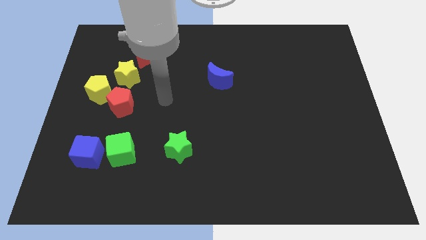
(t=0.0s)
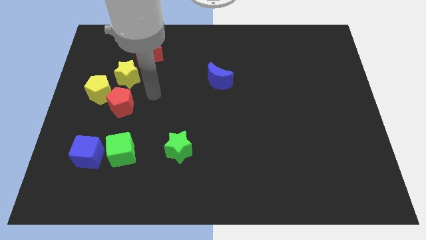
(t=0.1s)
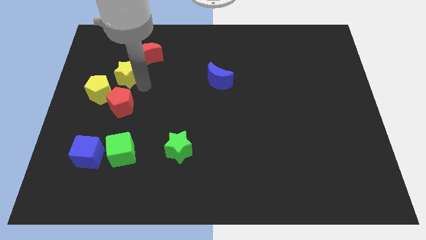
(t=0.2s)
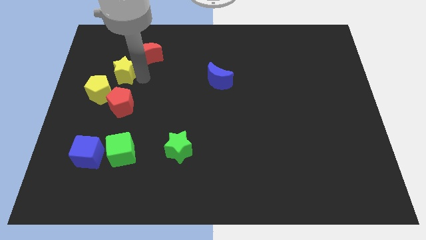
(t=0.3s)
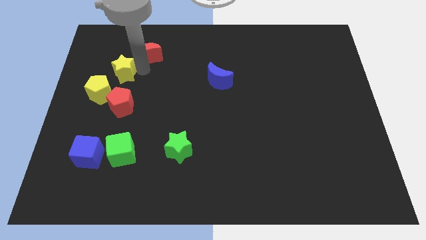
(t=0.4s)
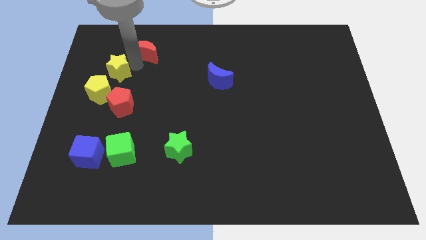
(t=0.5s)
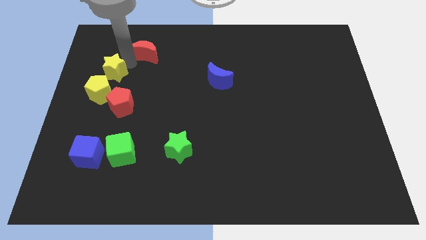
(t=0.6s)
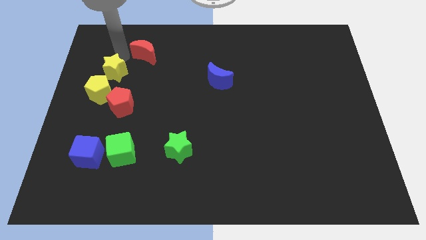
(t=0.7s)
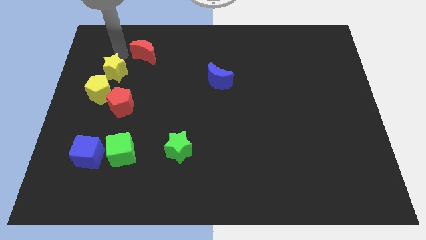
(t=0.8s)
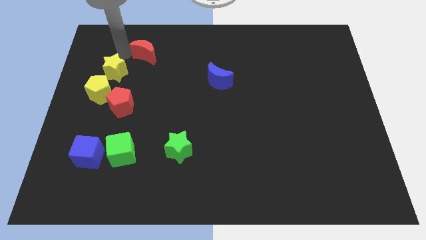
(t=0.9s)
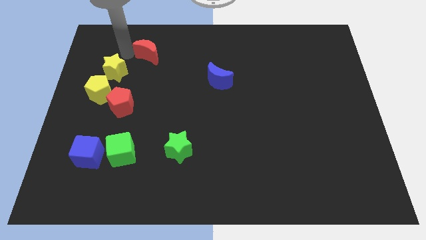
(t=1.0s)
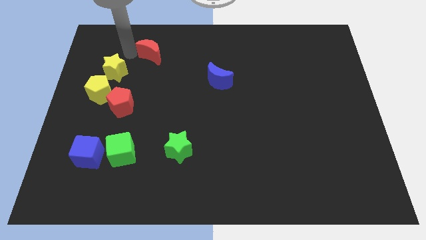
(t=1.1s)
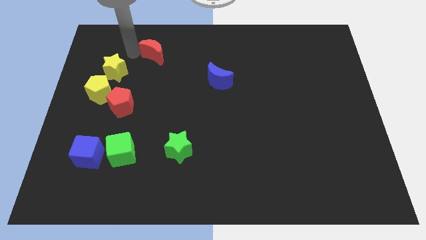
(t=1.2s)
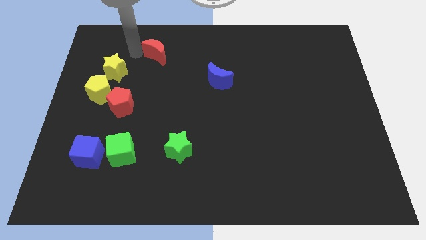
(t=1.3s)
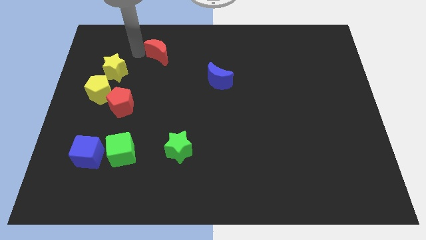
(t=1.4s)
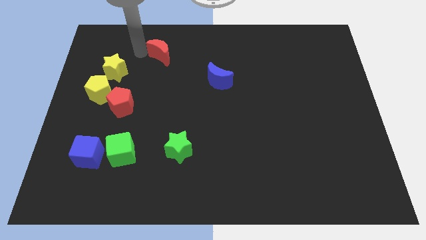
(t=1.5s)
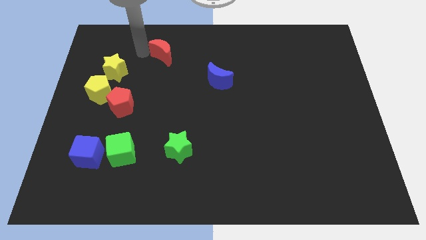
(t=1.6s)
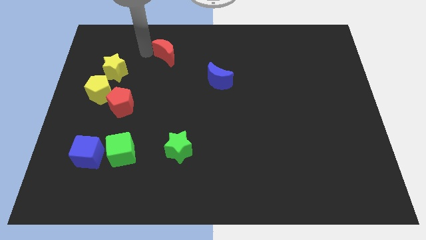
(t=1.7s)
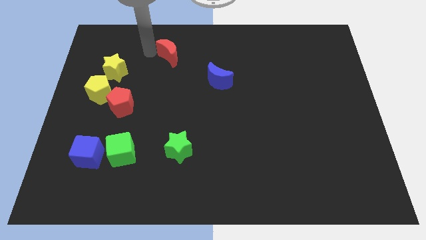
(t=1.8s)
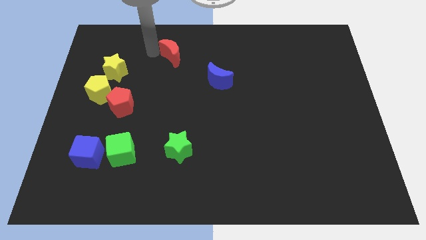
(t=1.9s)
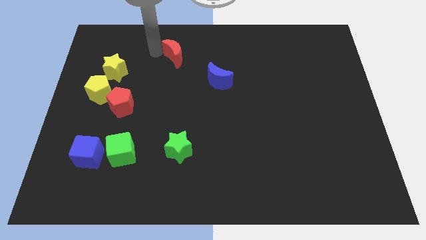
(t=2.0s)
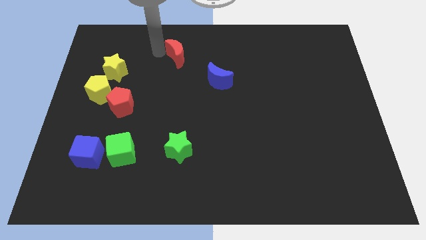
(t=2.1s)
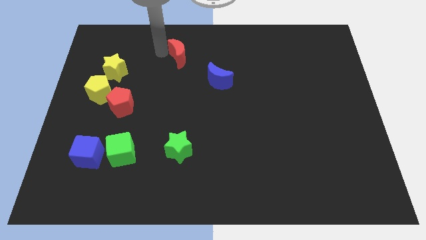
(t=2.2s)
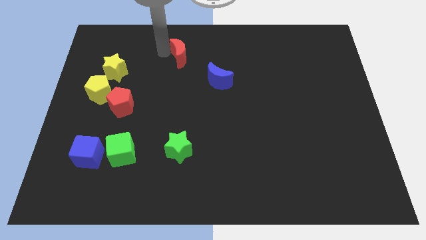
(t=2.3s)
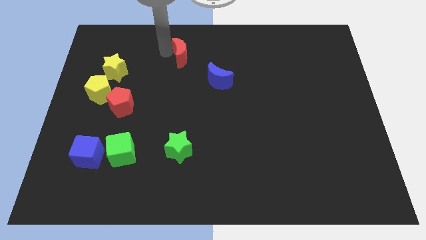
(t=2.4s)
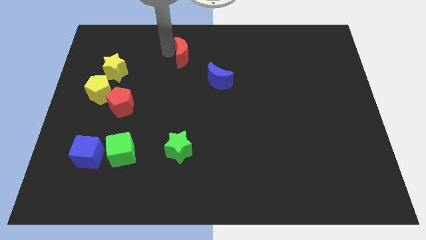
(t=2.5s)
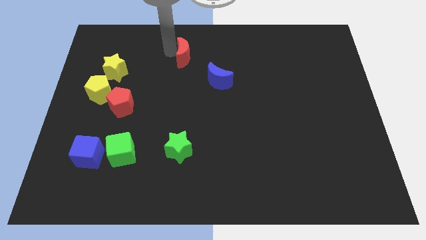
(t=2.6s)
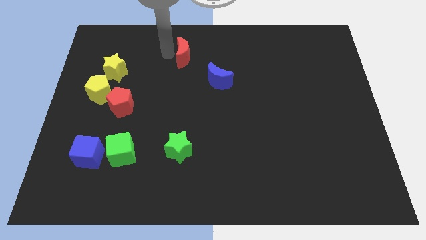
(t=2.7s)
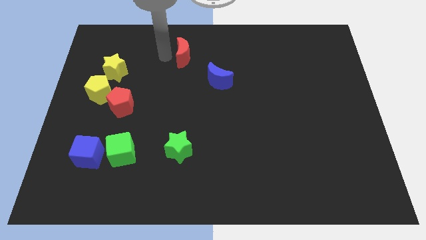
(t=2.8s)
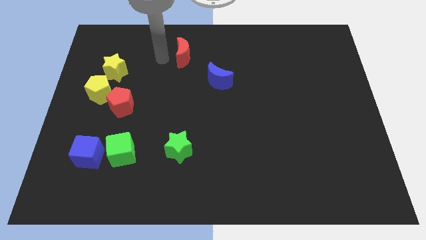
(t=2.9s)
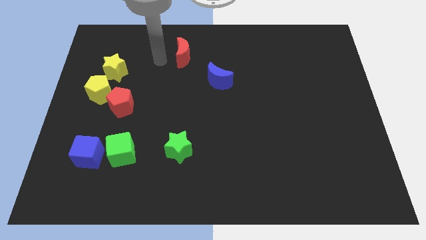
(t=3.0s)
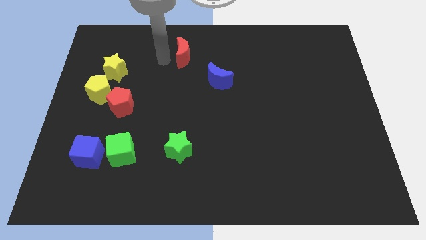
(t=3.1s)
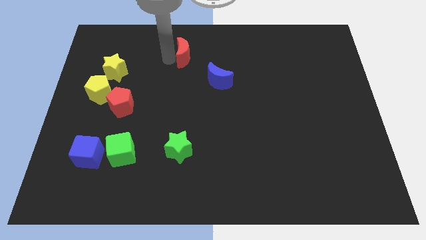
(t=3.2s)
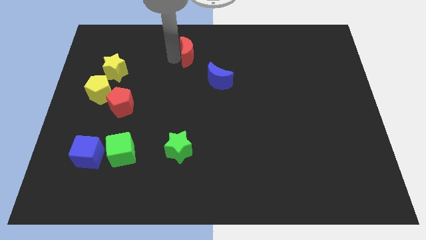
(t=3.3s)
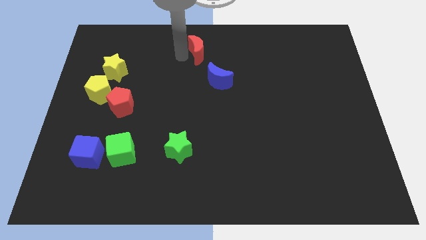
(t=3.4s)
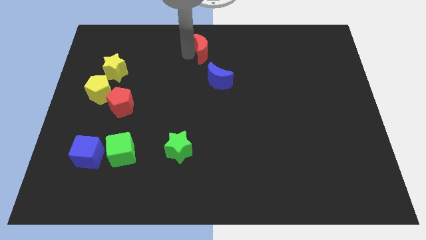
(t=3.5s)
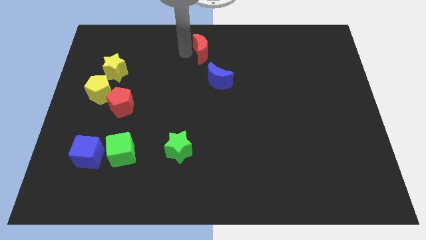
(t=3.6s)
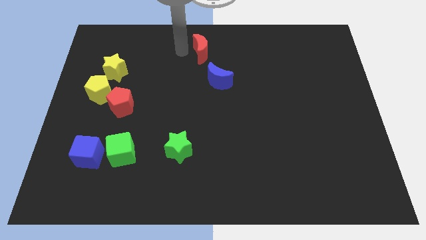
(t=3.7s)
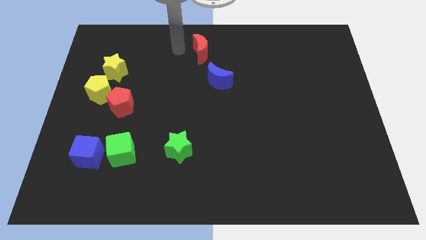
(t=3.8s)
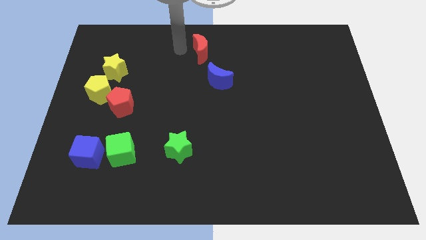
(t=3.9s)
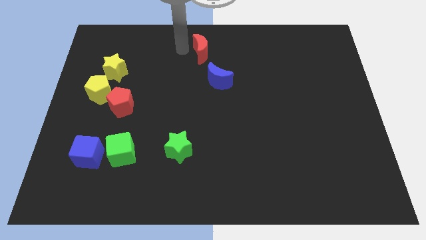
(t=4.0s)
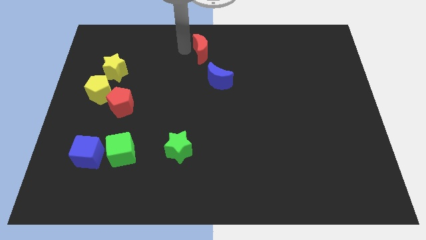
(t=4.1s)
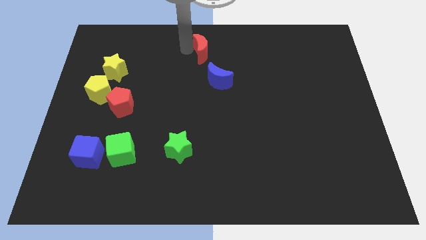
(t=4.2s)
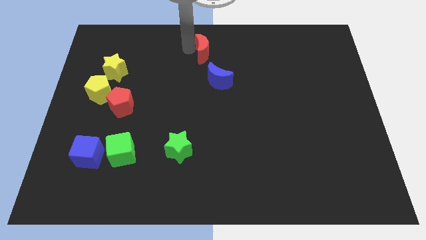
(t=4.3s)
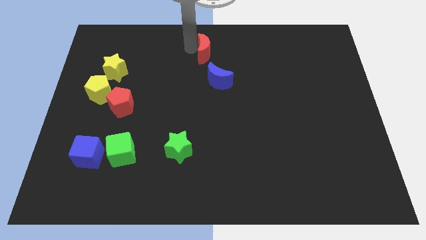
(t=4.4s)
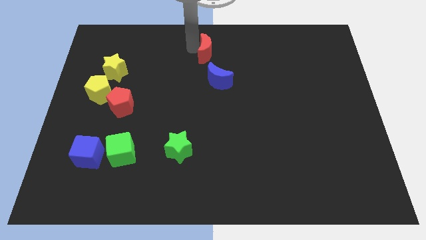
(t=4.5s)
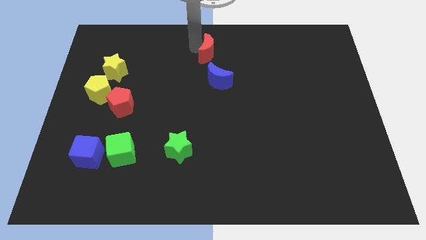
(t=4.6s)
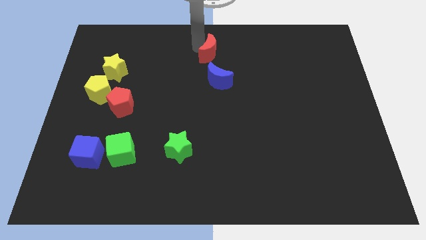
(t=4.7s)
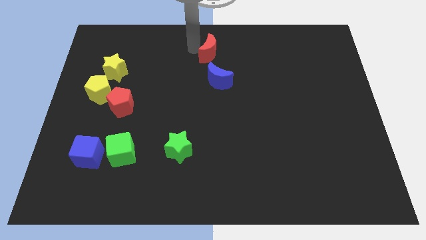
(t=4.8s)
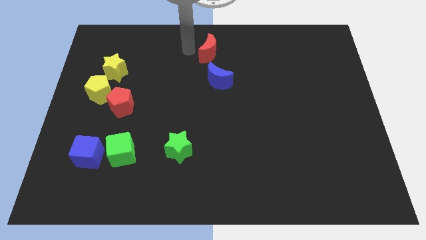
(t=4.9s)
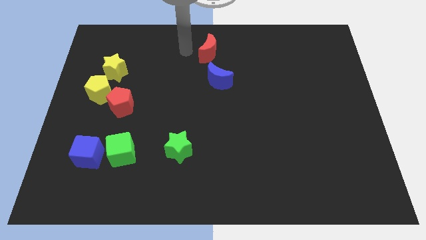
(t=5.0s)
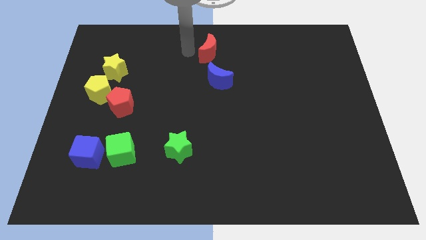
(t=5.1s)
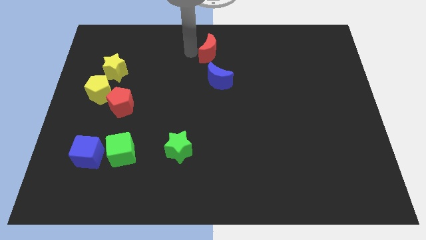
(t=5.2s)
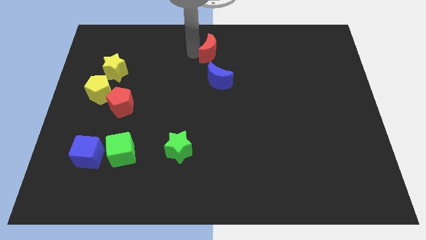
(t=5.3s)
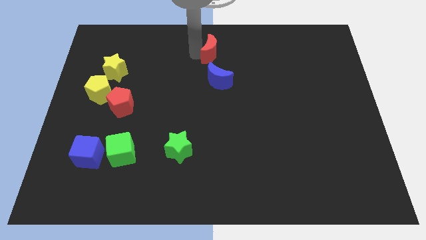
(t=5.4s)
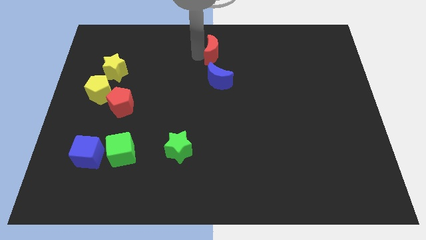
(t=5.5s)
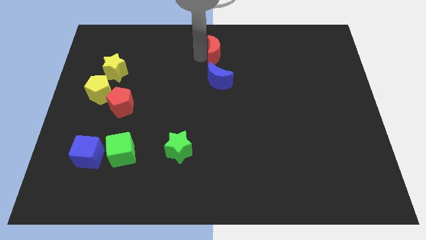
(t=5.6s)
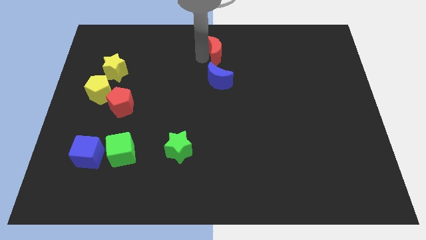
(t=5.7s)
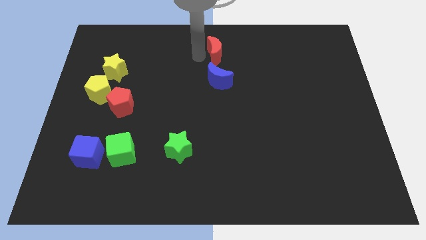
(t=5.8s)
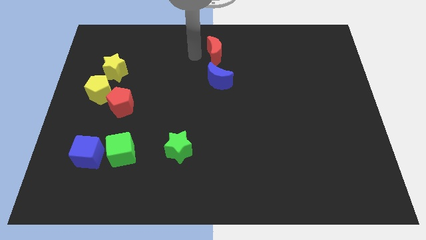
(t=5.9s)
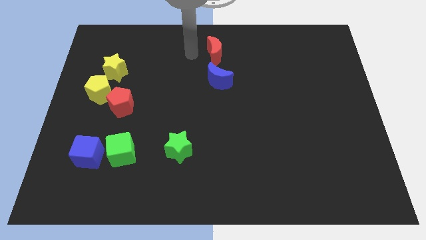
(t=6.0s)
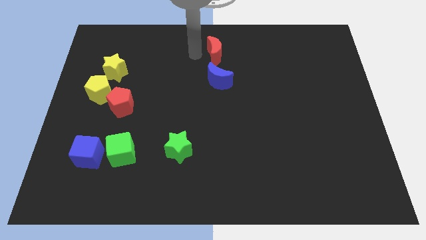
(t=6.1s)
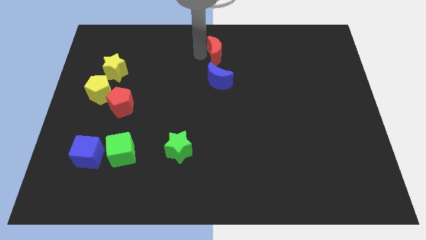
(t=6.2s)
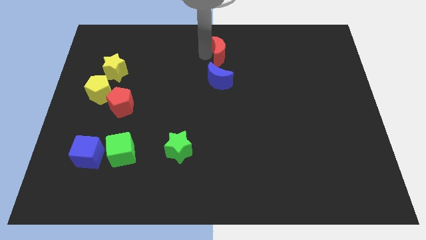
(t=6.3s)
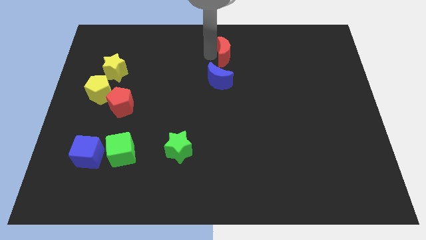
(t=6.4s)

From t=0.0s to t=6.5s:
push the red moon right

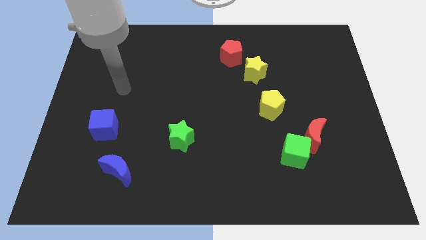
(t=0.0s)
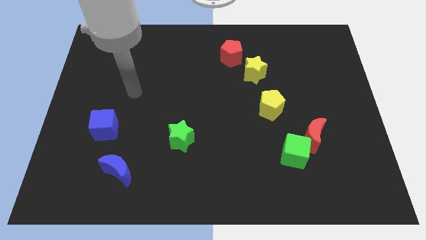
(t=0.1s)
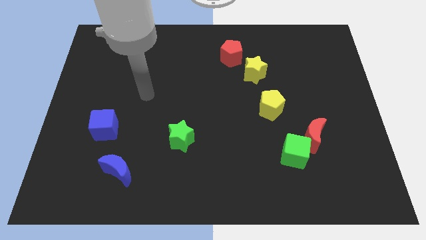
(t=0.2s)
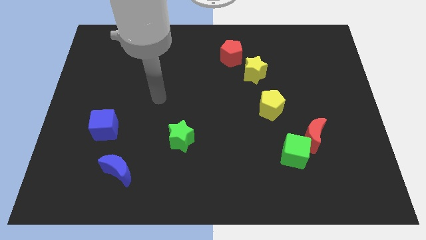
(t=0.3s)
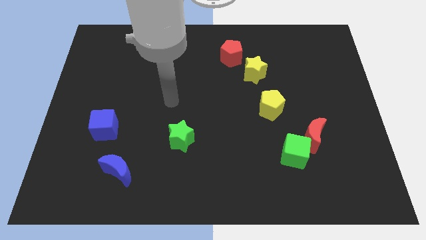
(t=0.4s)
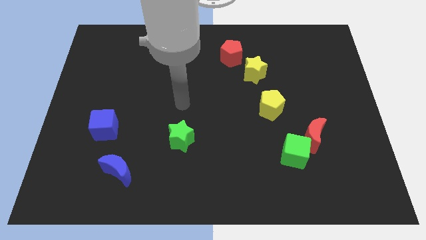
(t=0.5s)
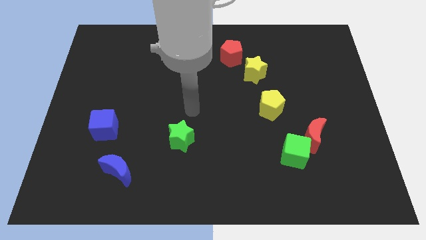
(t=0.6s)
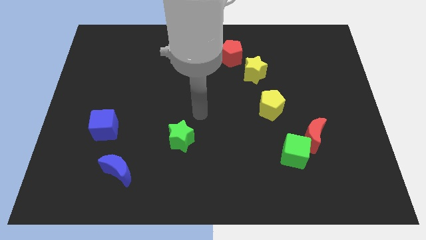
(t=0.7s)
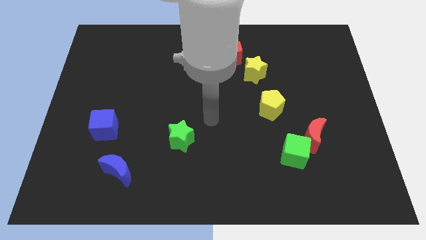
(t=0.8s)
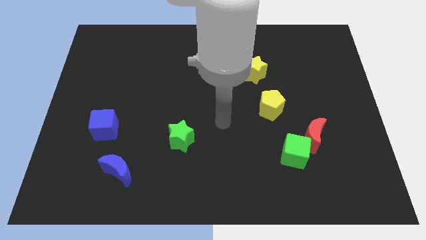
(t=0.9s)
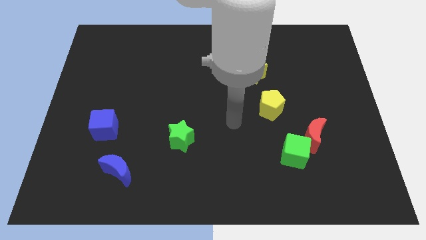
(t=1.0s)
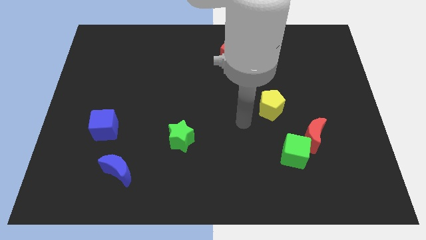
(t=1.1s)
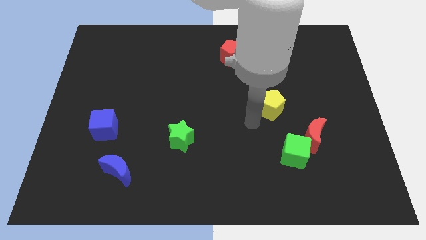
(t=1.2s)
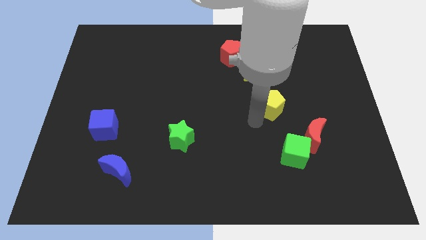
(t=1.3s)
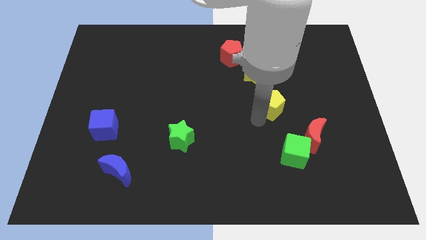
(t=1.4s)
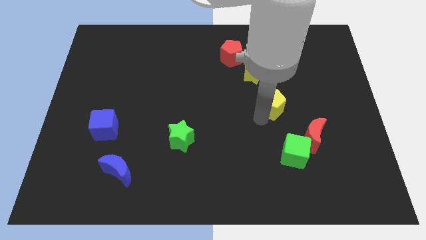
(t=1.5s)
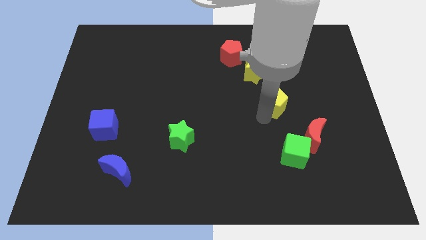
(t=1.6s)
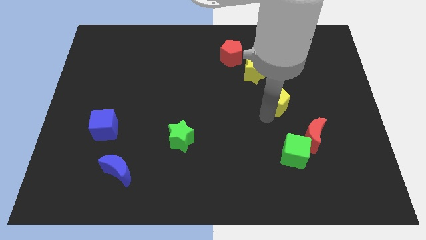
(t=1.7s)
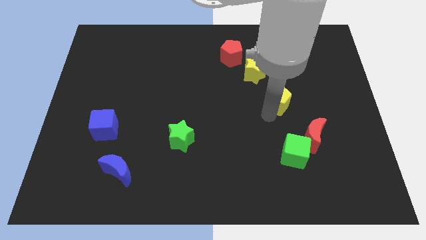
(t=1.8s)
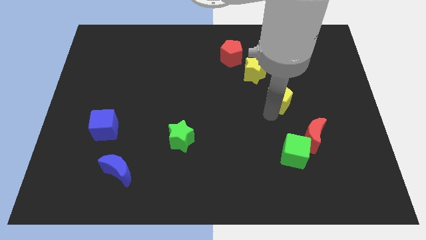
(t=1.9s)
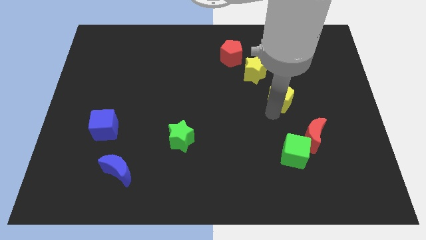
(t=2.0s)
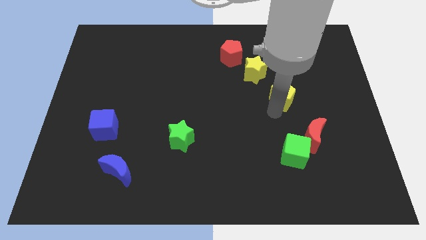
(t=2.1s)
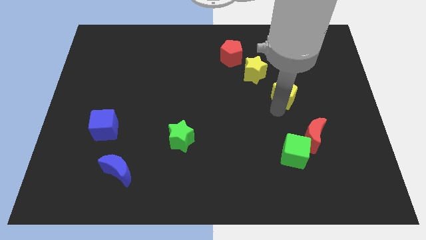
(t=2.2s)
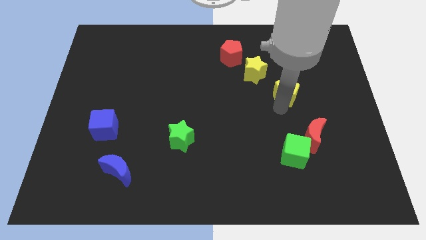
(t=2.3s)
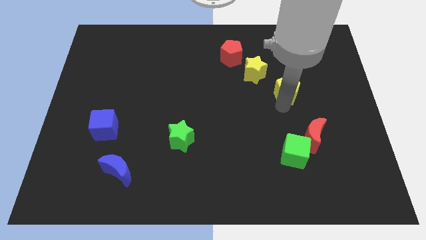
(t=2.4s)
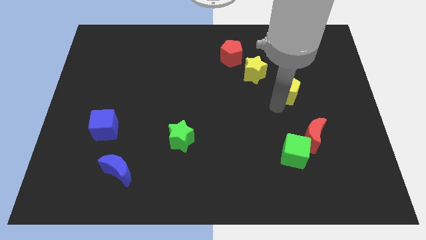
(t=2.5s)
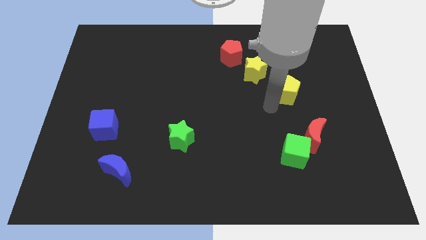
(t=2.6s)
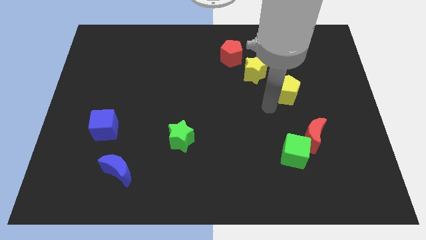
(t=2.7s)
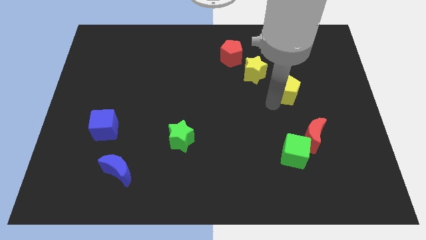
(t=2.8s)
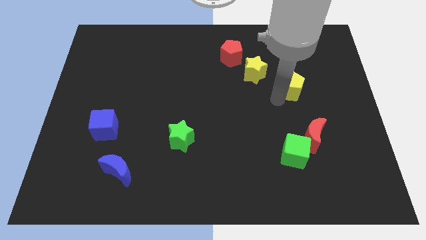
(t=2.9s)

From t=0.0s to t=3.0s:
move the yellow pentagon upwards and to the right diagonally slightly
